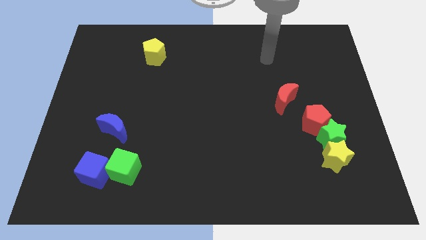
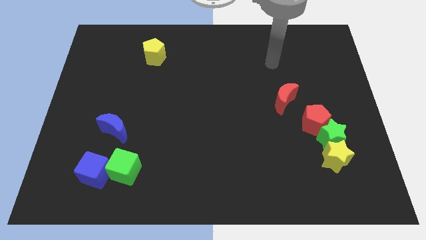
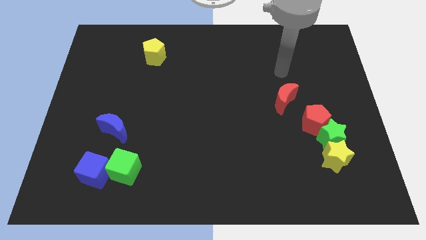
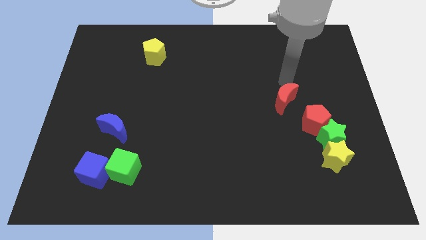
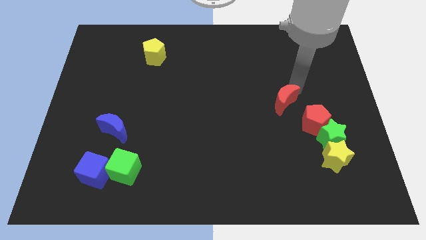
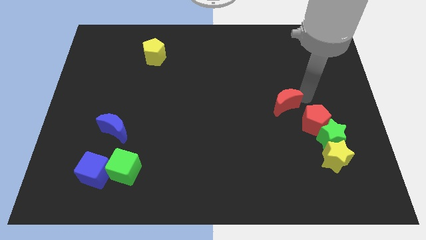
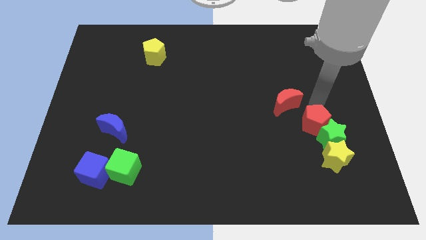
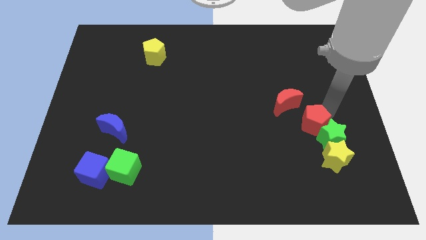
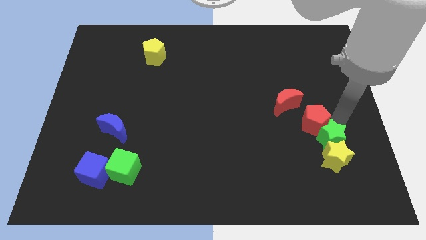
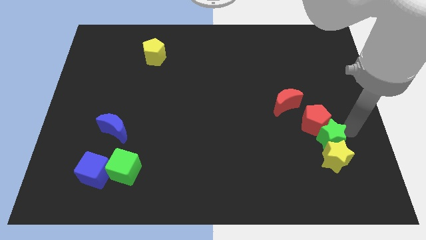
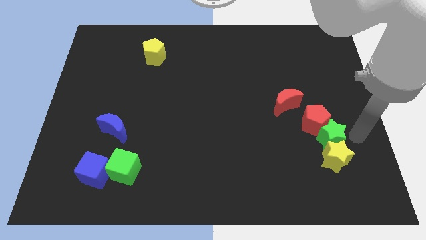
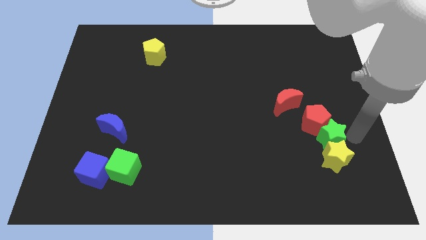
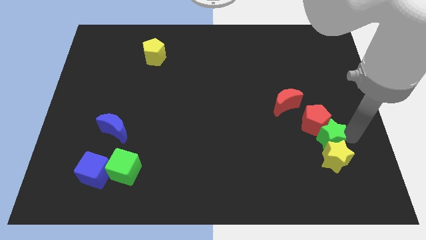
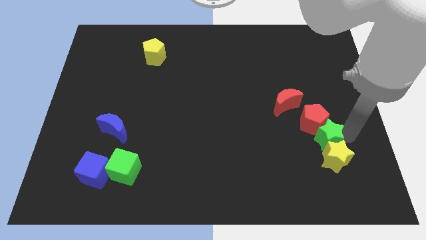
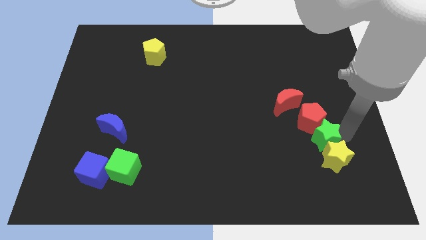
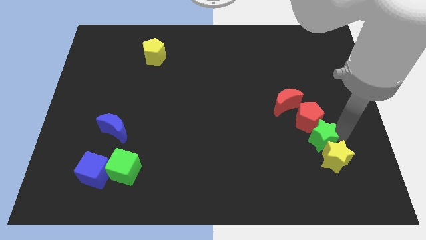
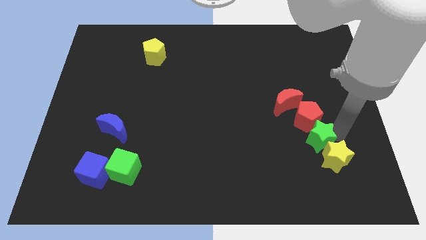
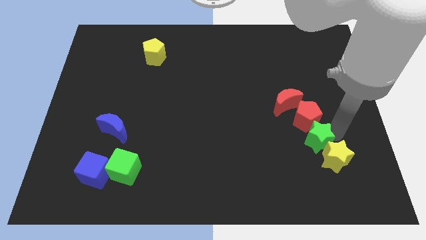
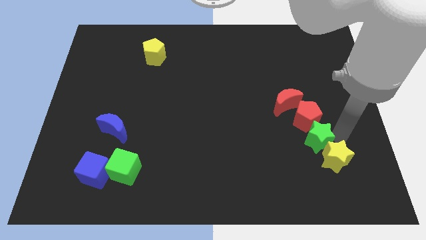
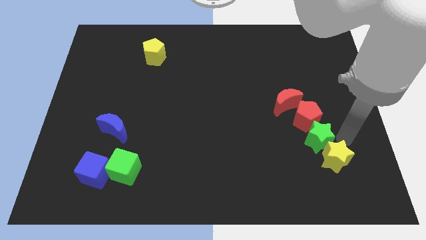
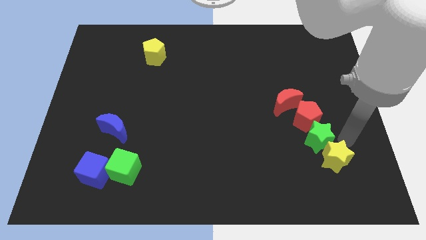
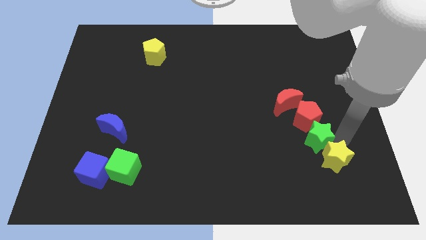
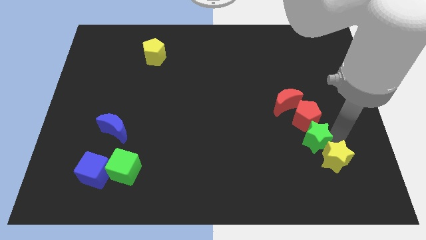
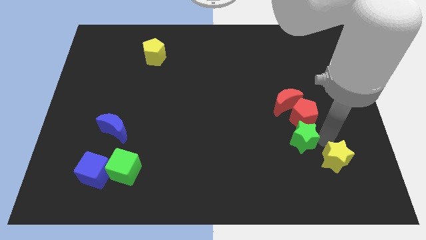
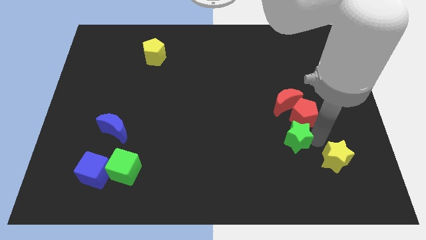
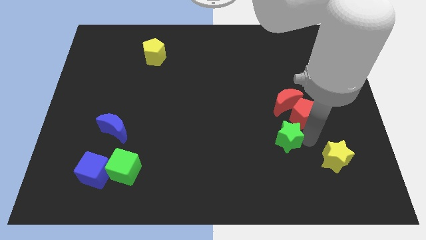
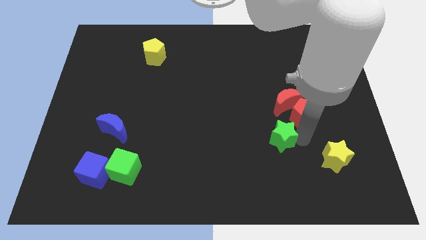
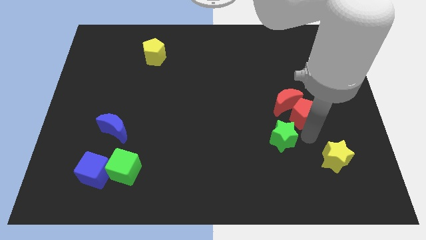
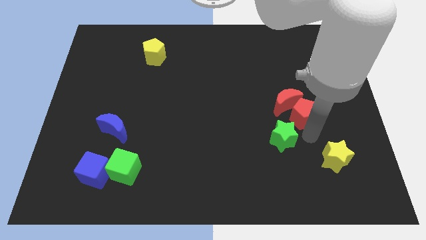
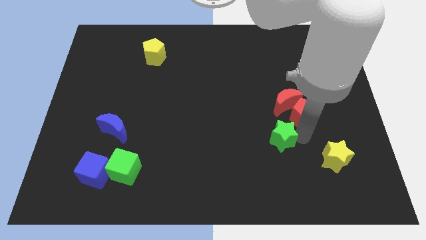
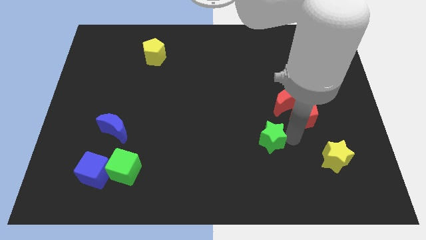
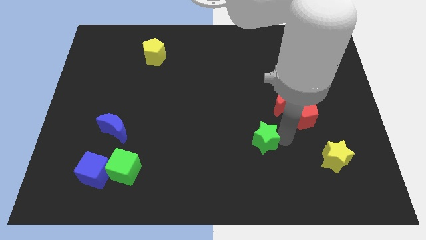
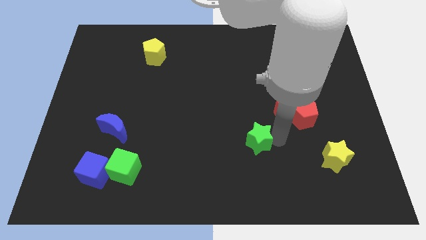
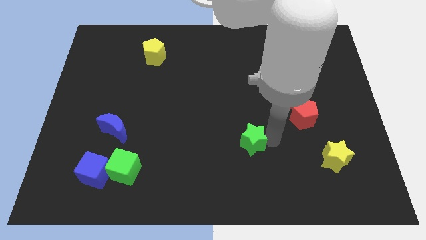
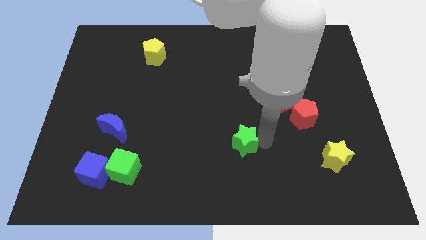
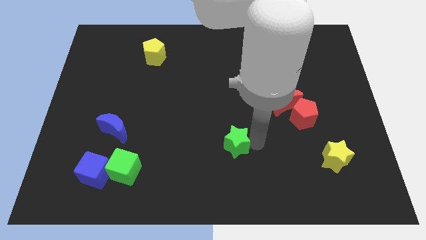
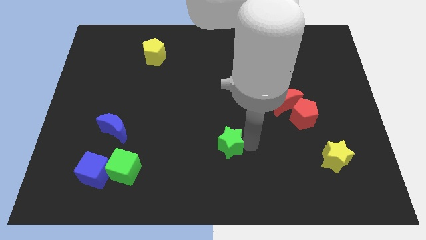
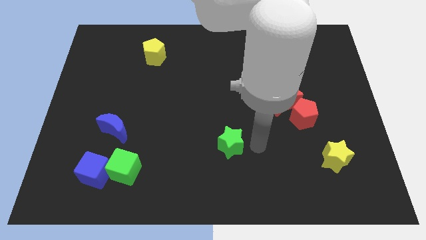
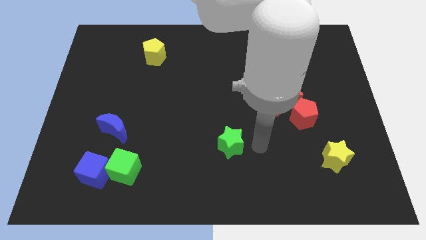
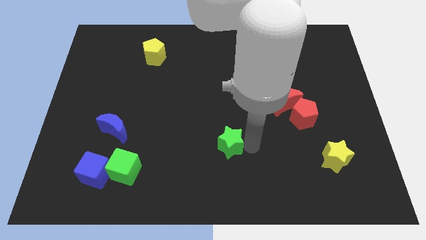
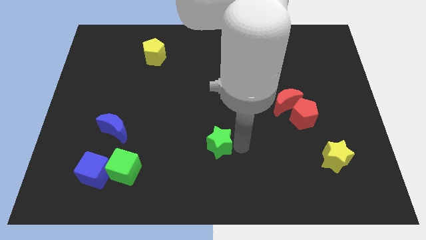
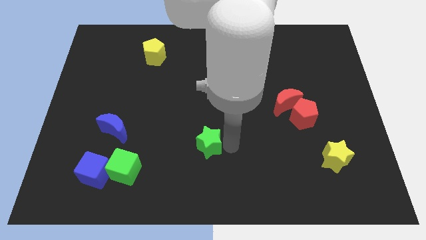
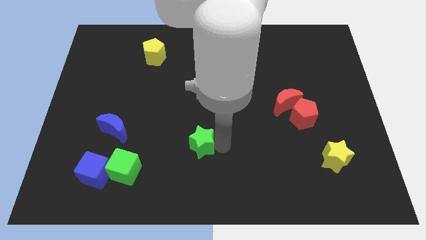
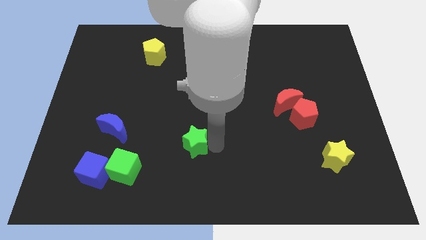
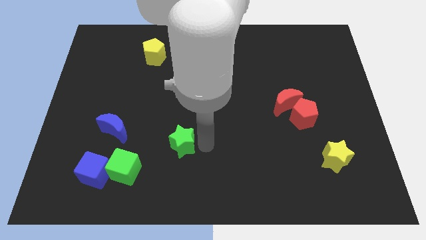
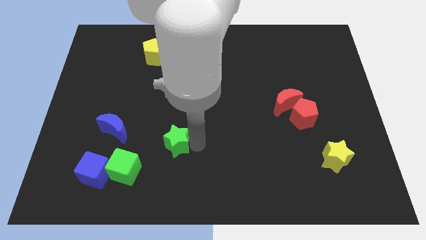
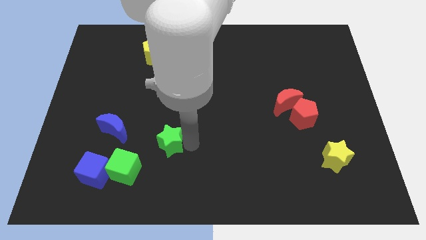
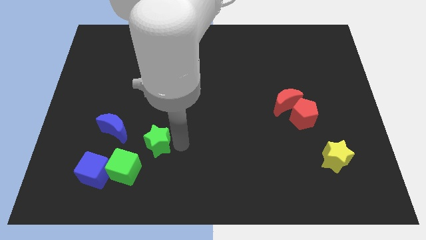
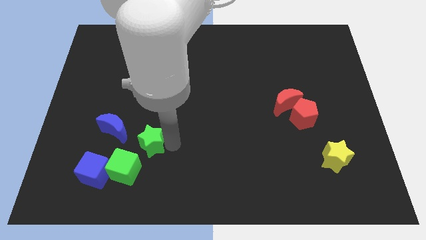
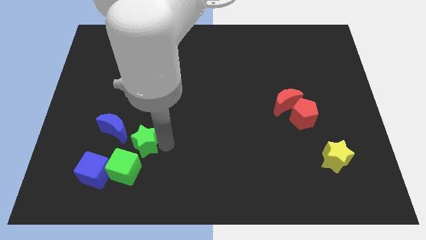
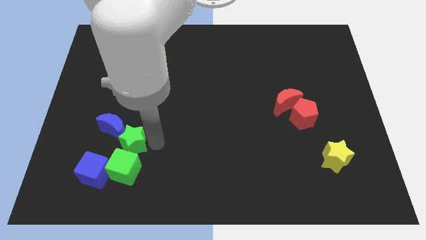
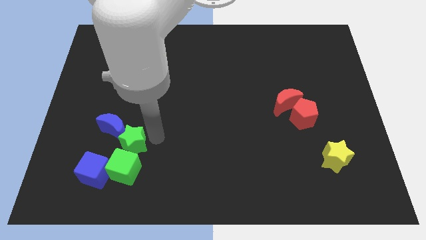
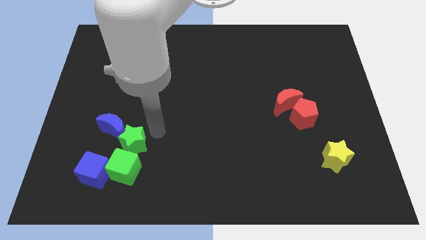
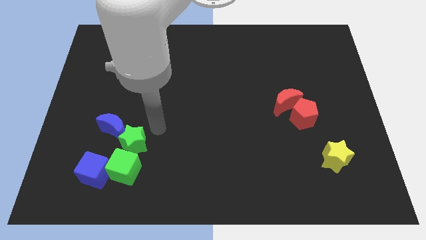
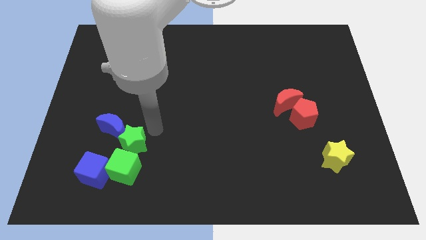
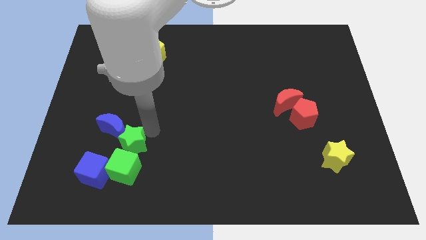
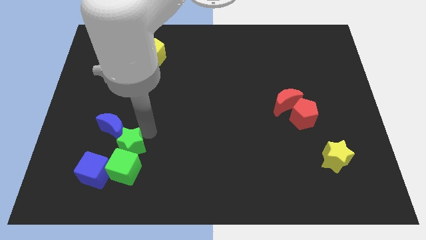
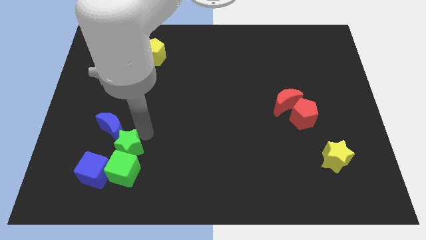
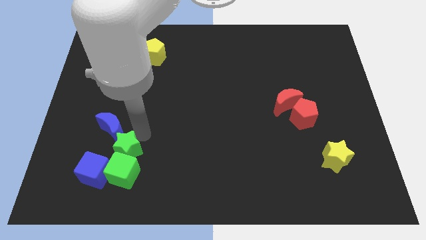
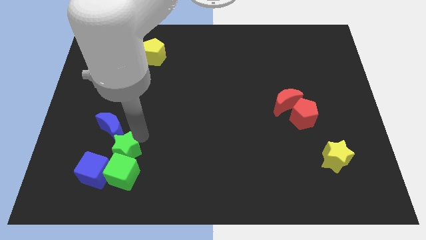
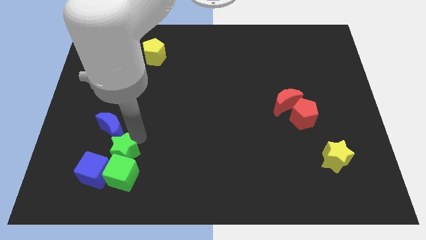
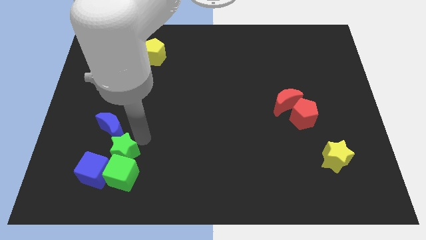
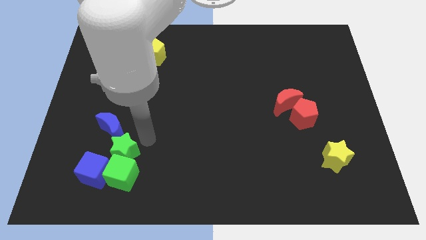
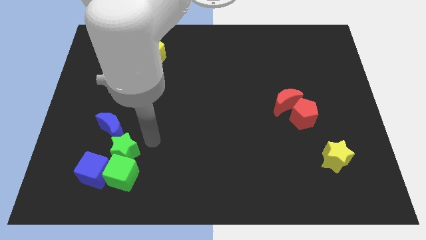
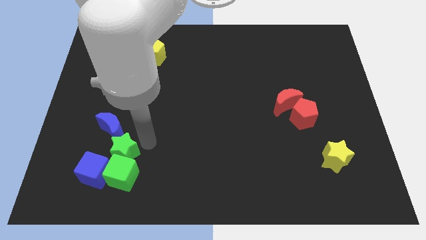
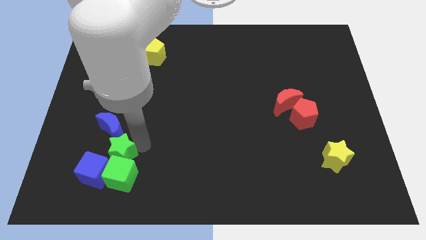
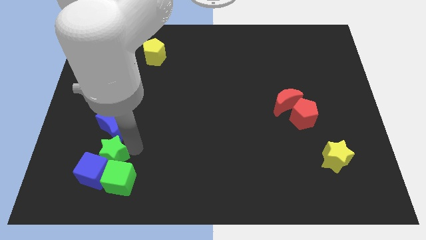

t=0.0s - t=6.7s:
put the green star next to the blue cube
